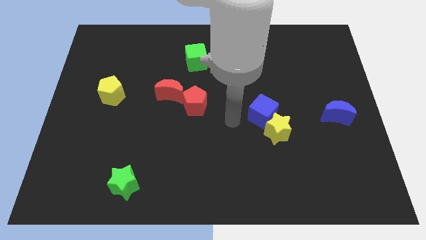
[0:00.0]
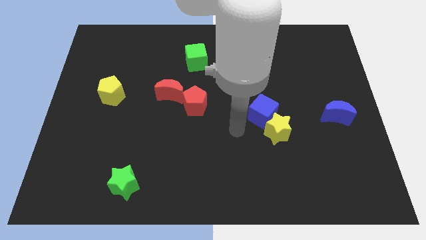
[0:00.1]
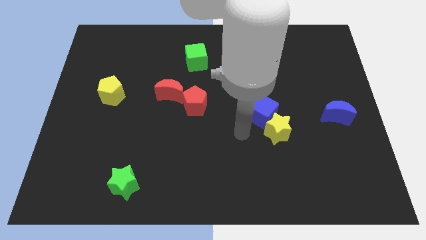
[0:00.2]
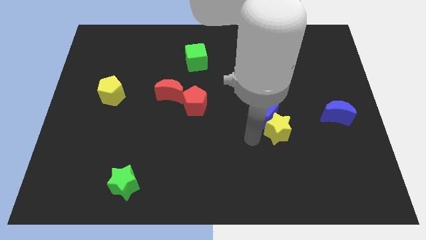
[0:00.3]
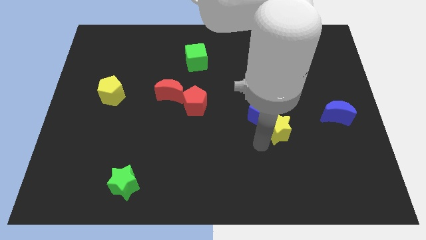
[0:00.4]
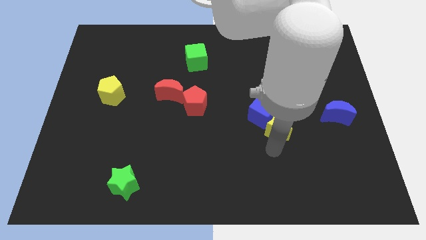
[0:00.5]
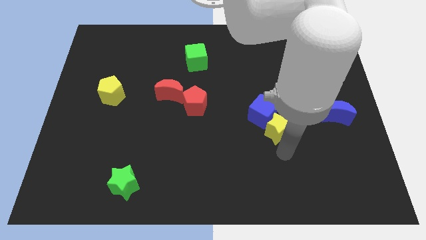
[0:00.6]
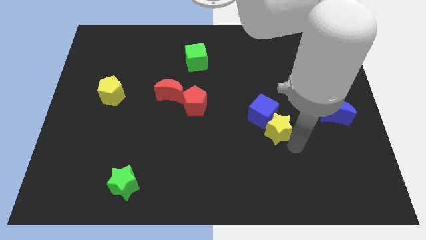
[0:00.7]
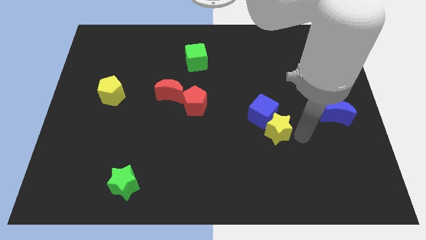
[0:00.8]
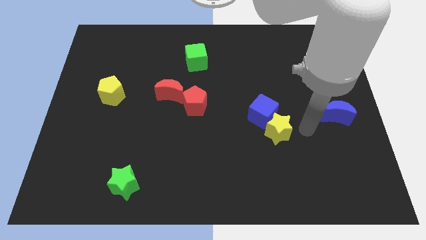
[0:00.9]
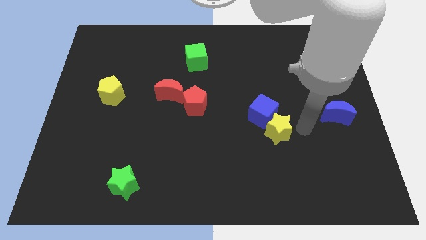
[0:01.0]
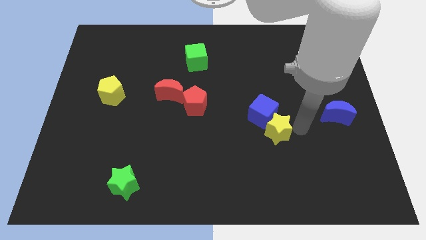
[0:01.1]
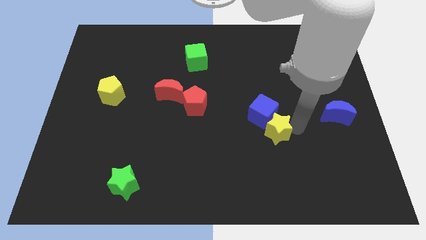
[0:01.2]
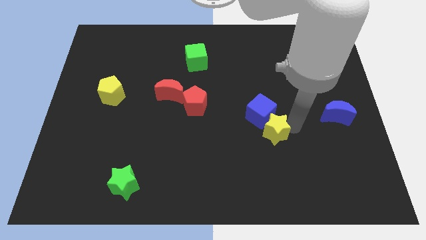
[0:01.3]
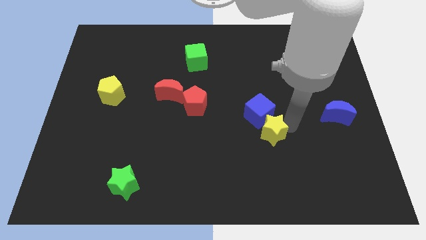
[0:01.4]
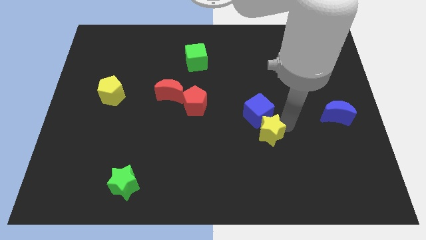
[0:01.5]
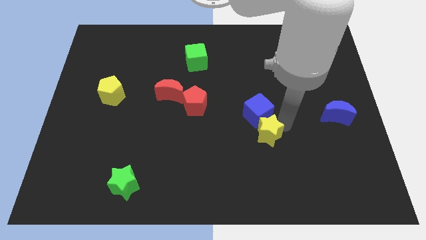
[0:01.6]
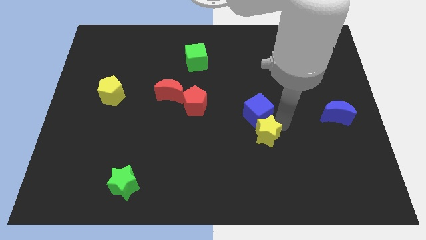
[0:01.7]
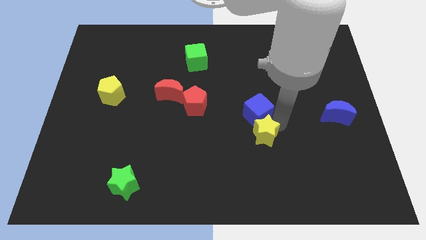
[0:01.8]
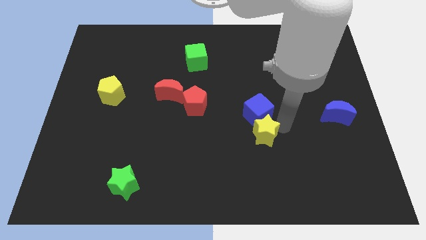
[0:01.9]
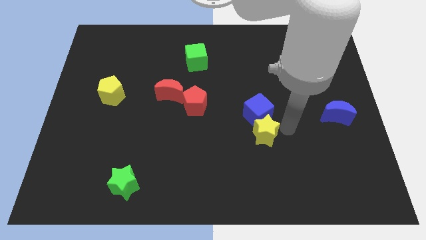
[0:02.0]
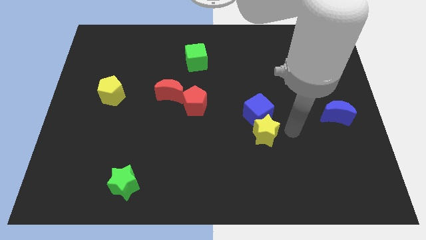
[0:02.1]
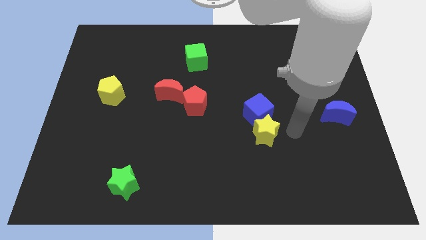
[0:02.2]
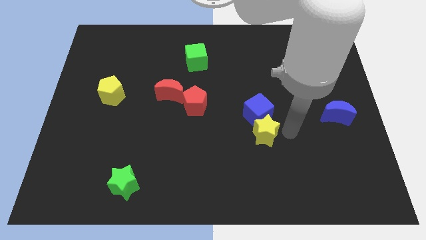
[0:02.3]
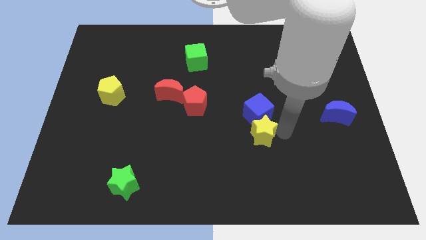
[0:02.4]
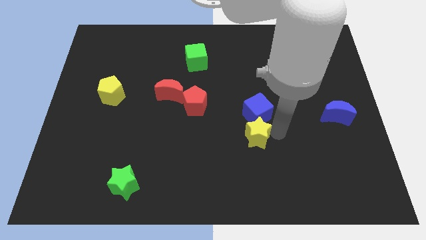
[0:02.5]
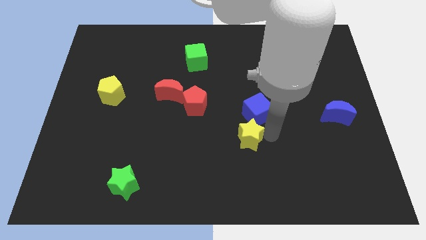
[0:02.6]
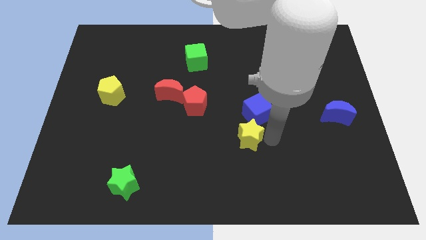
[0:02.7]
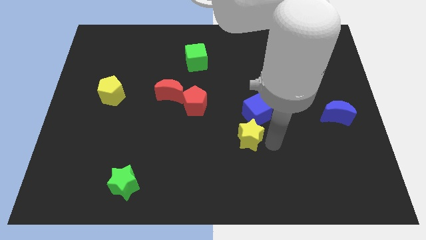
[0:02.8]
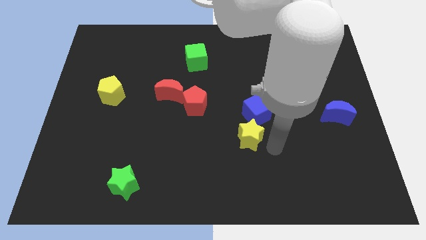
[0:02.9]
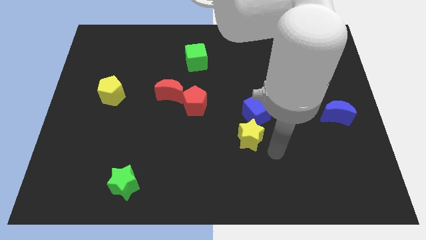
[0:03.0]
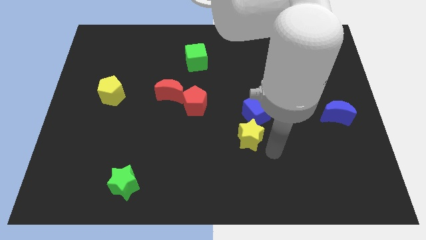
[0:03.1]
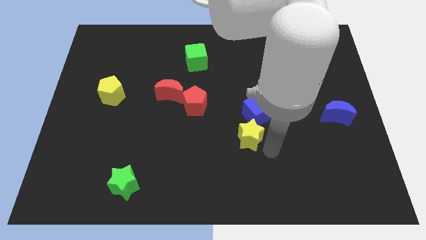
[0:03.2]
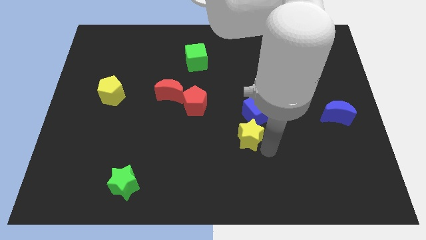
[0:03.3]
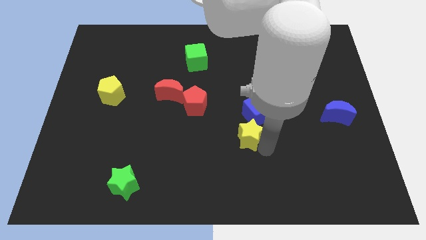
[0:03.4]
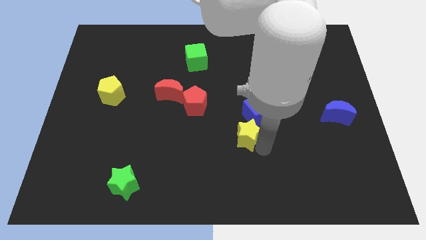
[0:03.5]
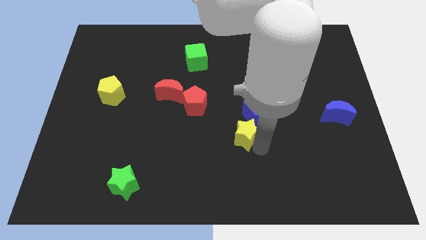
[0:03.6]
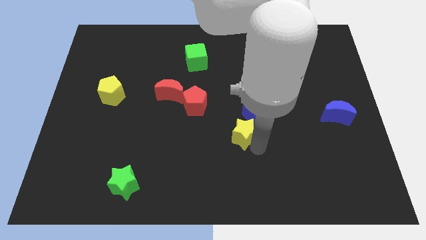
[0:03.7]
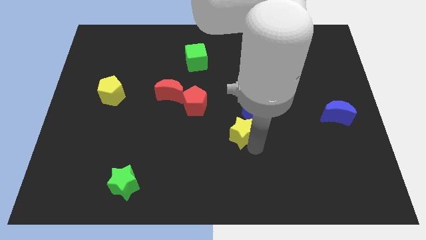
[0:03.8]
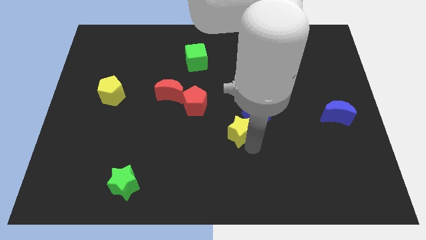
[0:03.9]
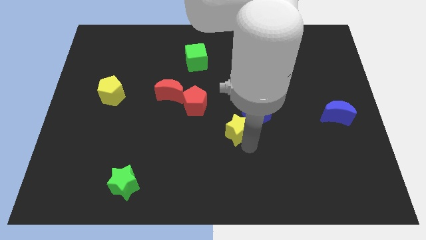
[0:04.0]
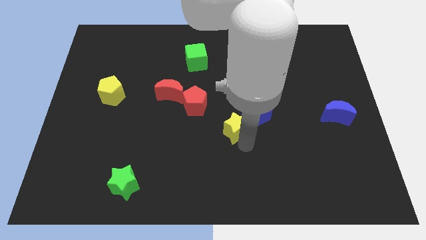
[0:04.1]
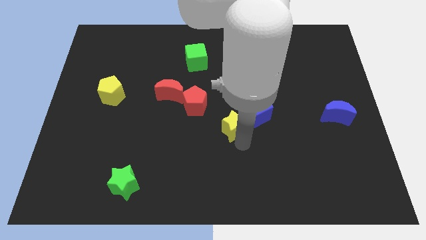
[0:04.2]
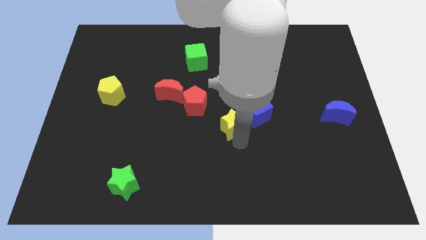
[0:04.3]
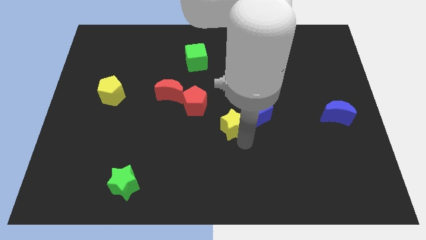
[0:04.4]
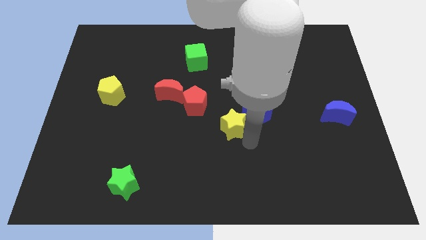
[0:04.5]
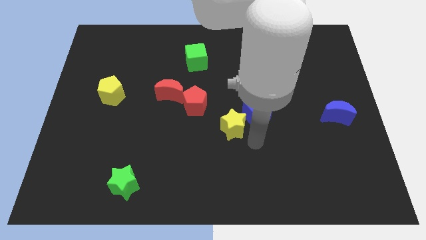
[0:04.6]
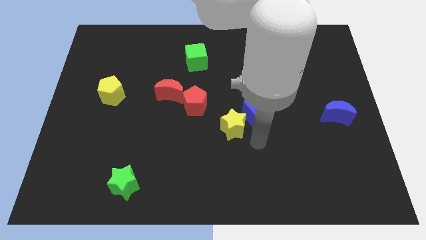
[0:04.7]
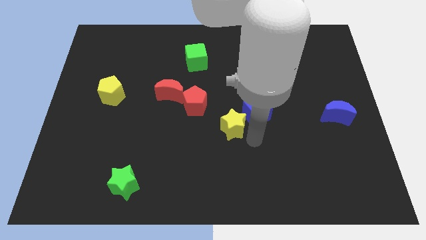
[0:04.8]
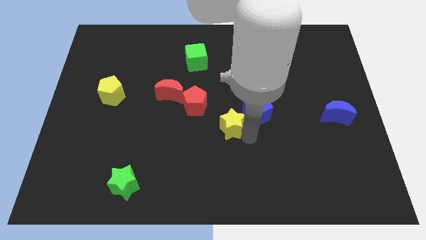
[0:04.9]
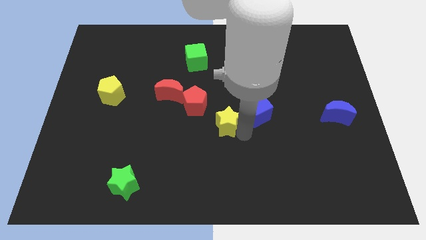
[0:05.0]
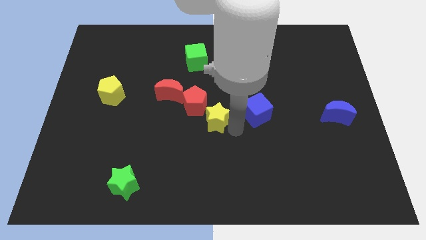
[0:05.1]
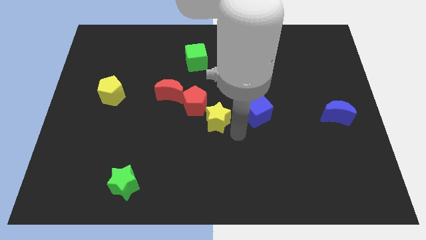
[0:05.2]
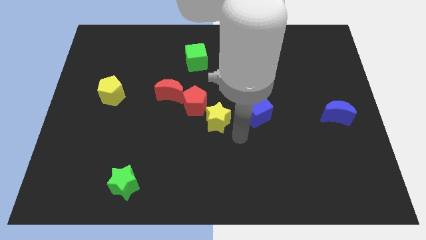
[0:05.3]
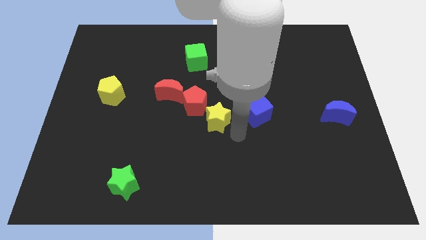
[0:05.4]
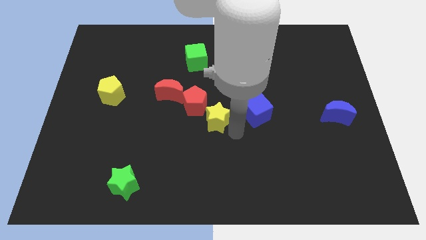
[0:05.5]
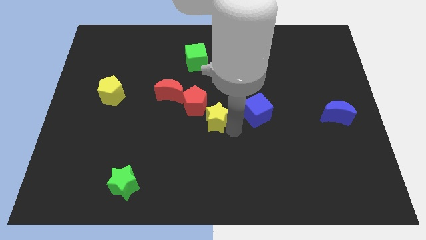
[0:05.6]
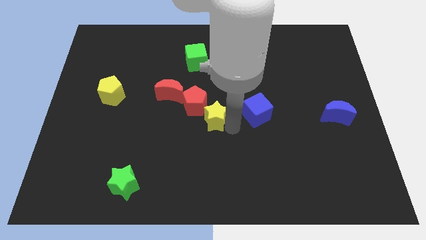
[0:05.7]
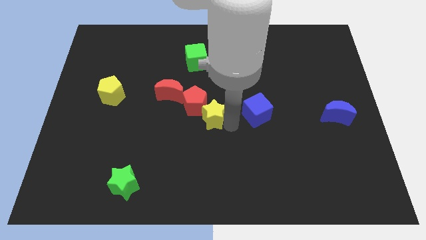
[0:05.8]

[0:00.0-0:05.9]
slide the yellow star towards the red pentagon
